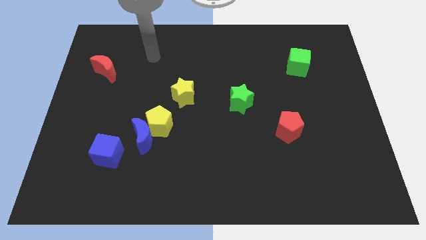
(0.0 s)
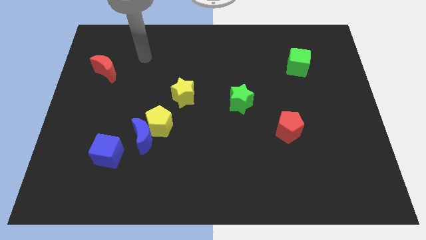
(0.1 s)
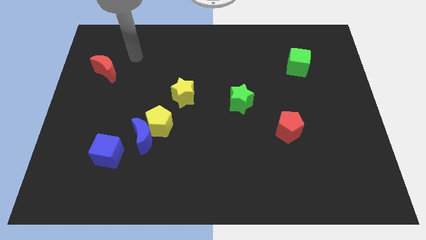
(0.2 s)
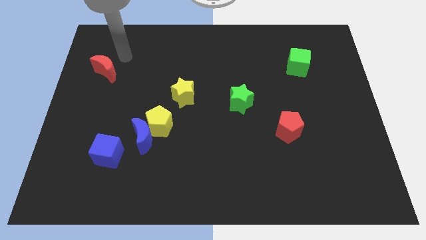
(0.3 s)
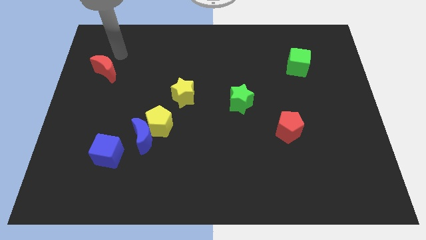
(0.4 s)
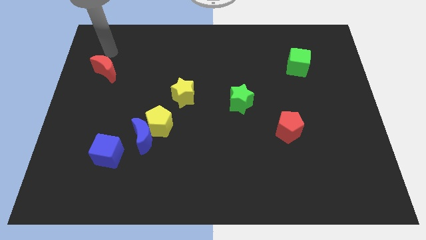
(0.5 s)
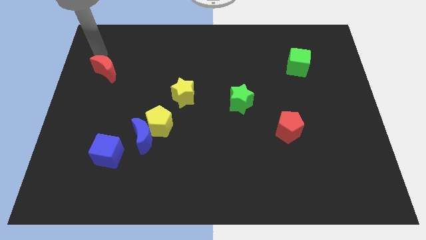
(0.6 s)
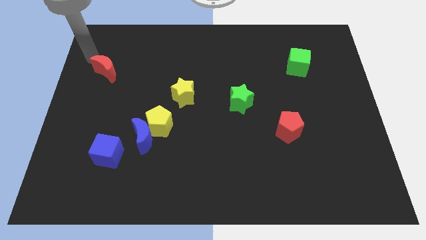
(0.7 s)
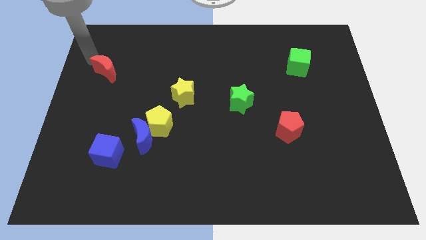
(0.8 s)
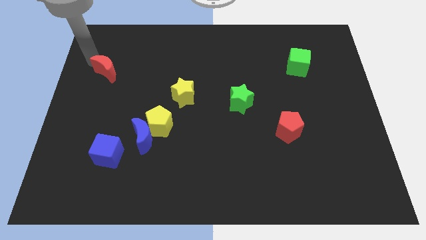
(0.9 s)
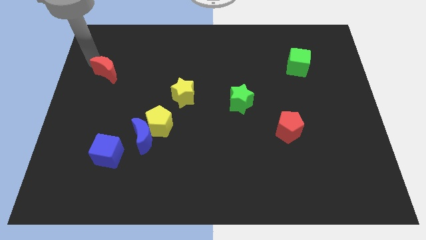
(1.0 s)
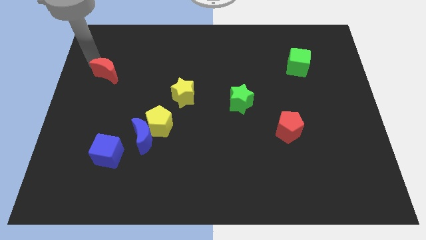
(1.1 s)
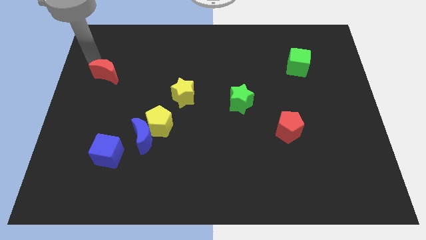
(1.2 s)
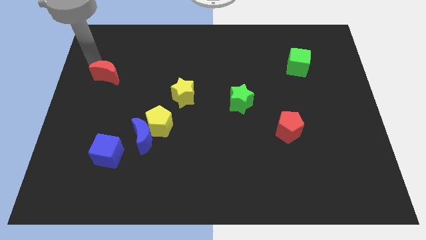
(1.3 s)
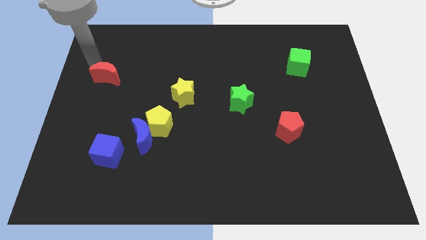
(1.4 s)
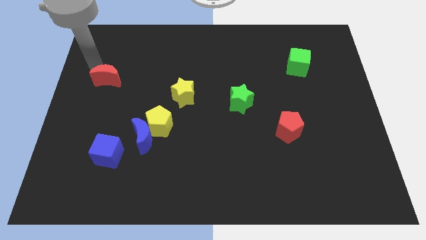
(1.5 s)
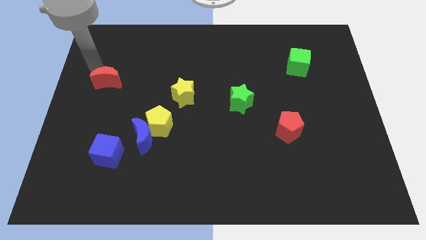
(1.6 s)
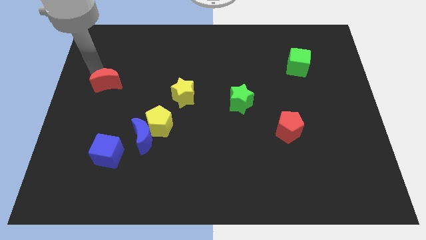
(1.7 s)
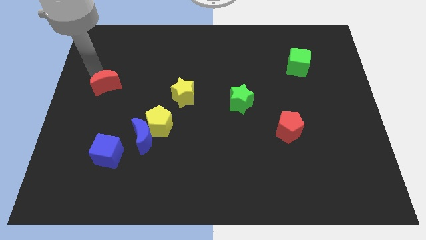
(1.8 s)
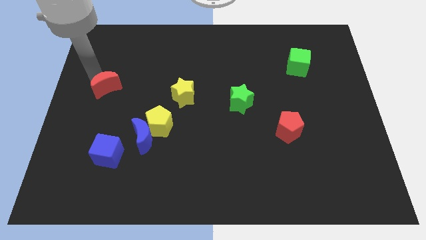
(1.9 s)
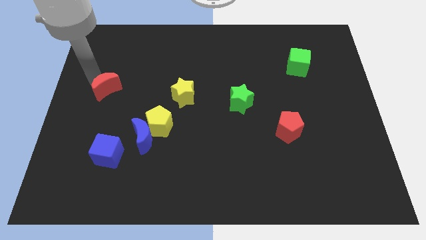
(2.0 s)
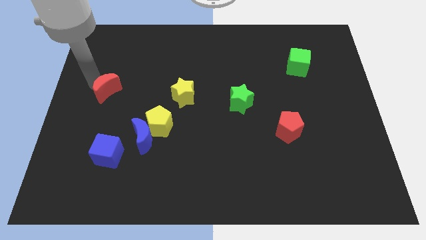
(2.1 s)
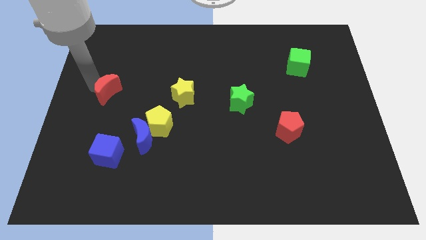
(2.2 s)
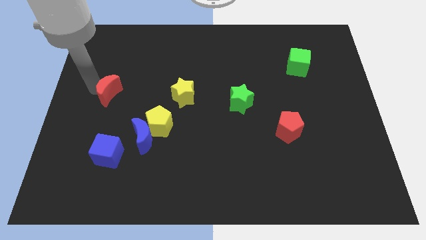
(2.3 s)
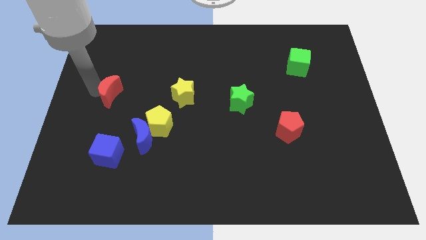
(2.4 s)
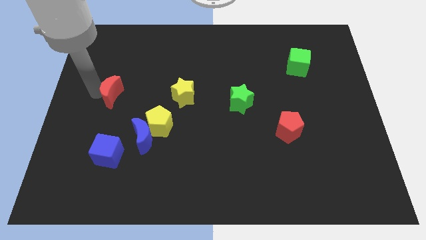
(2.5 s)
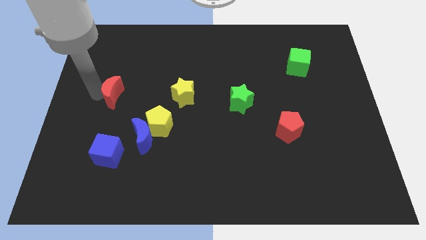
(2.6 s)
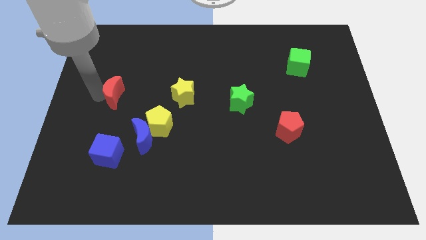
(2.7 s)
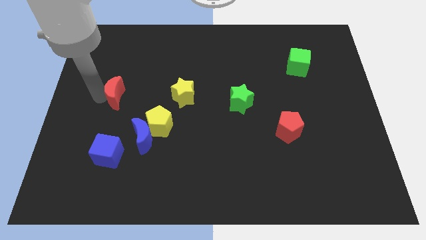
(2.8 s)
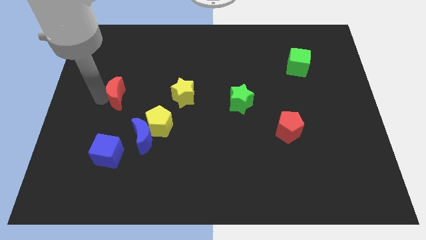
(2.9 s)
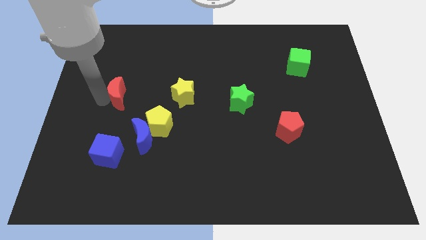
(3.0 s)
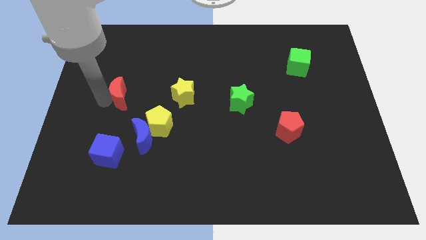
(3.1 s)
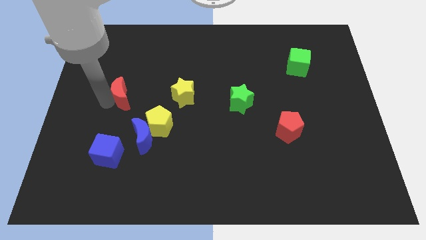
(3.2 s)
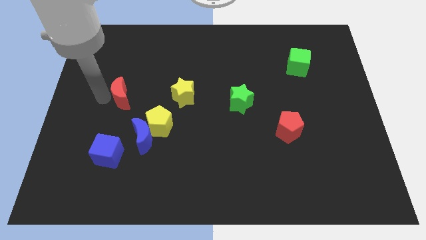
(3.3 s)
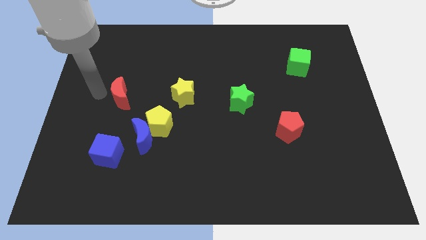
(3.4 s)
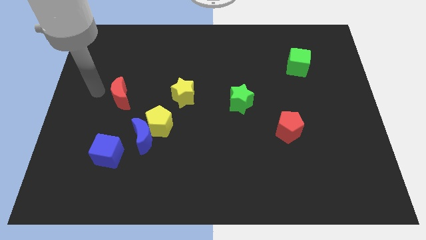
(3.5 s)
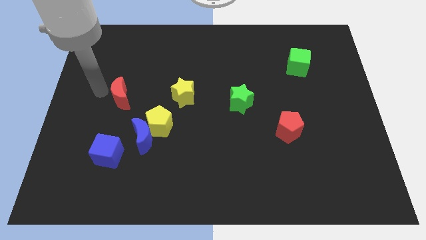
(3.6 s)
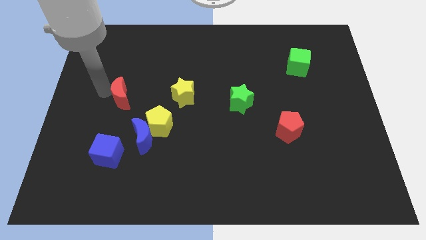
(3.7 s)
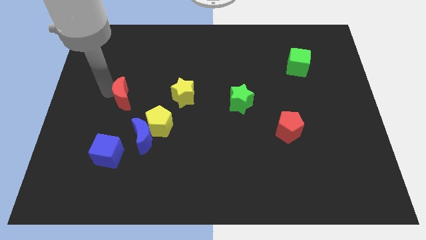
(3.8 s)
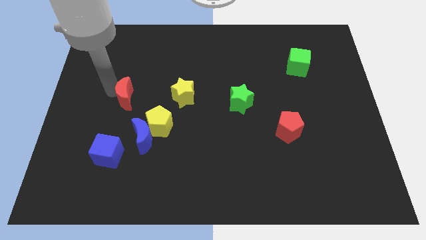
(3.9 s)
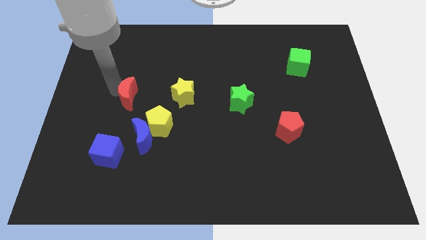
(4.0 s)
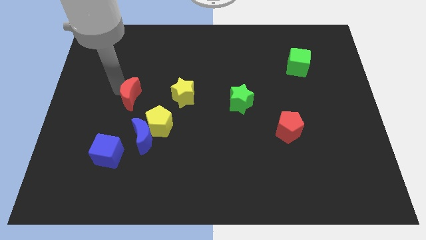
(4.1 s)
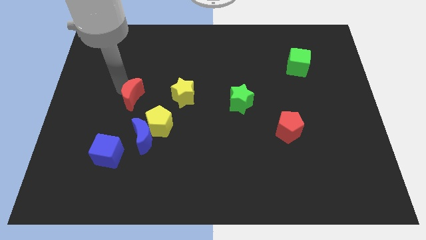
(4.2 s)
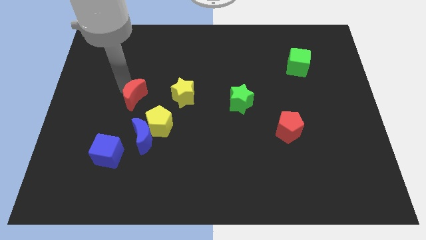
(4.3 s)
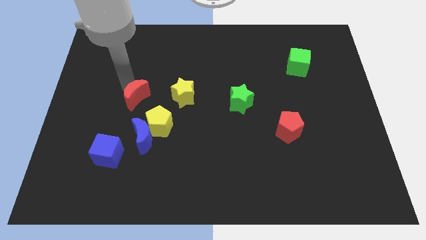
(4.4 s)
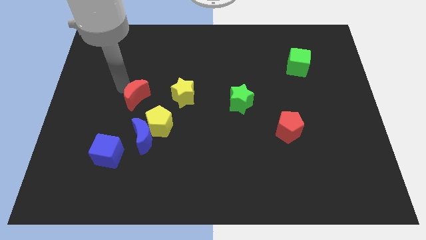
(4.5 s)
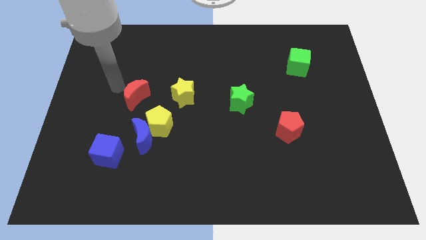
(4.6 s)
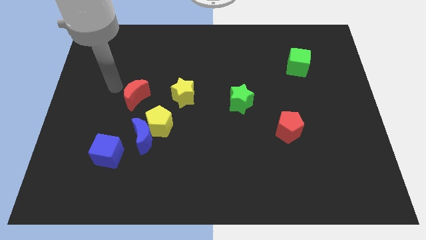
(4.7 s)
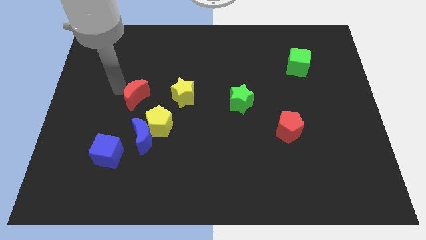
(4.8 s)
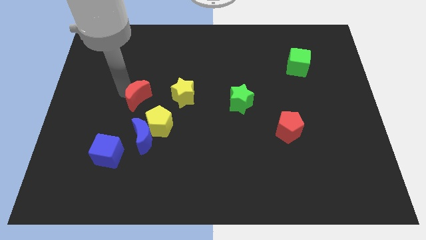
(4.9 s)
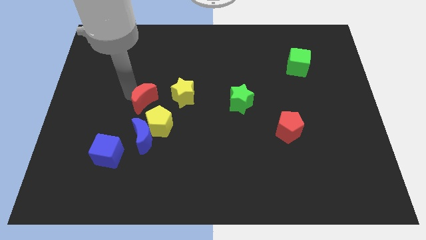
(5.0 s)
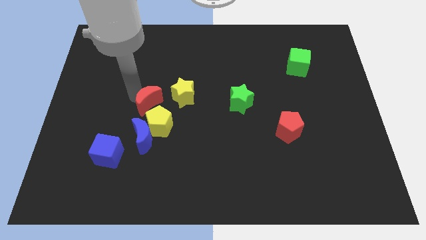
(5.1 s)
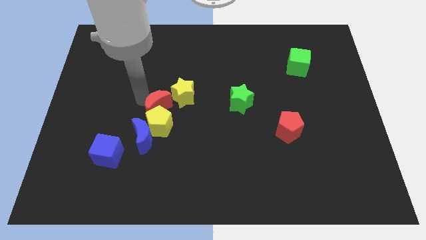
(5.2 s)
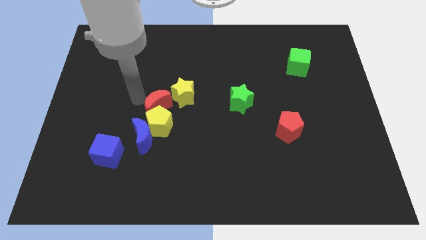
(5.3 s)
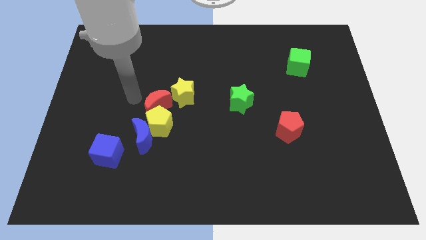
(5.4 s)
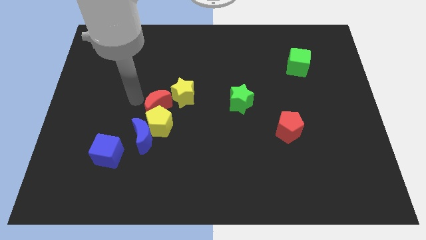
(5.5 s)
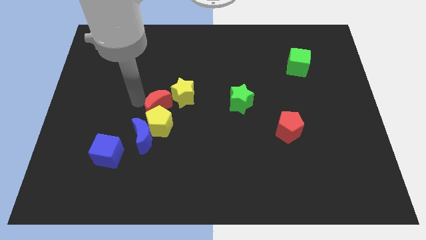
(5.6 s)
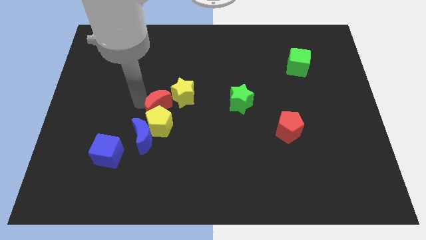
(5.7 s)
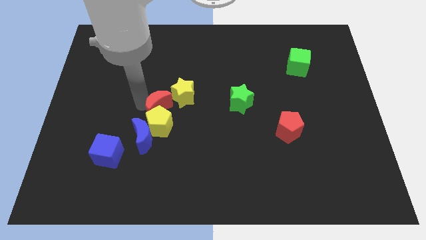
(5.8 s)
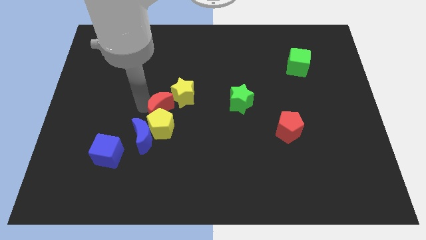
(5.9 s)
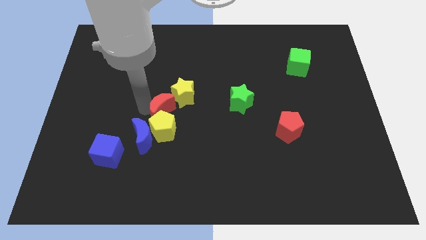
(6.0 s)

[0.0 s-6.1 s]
slide the red moon to the bottom side of the yellow star

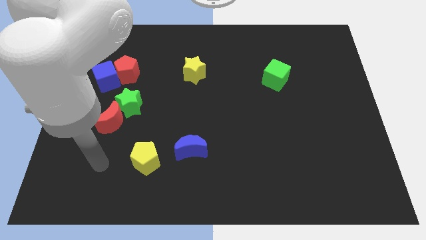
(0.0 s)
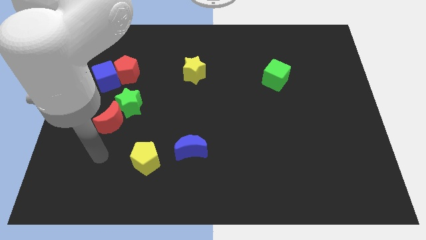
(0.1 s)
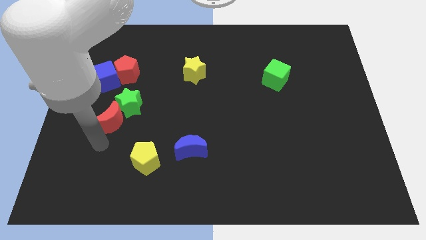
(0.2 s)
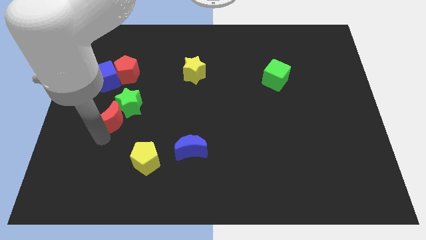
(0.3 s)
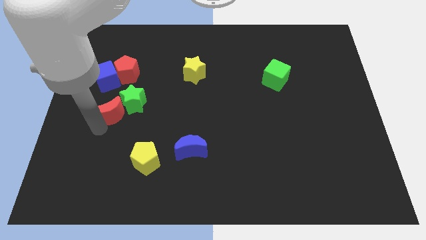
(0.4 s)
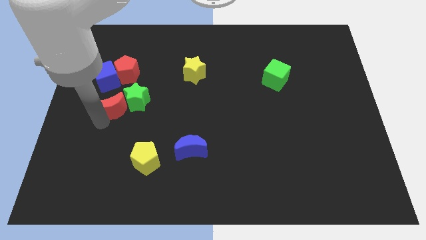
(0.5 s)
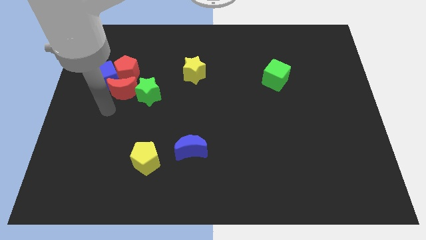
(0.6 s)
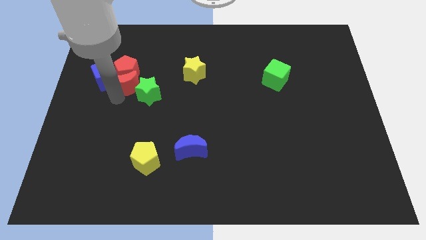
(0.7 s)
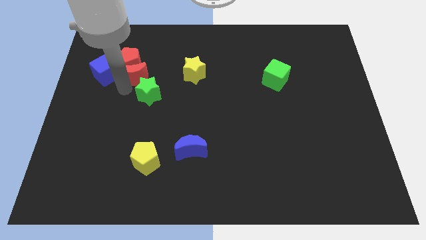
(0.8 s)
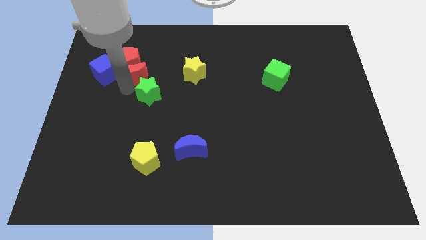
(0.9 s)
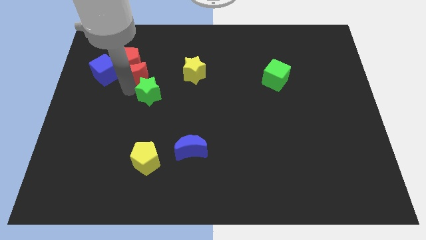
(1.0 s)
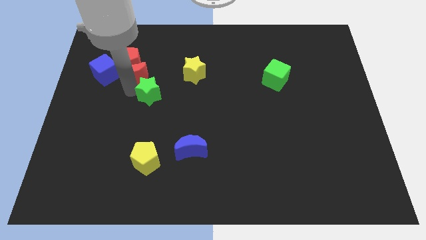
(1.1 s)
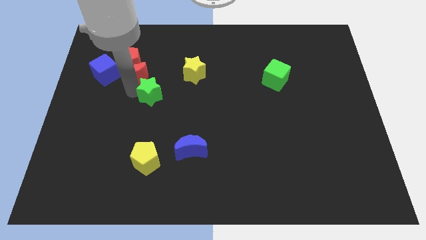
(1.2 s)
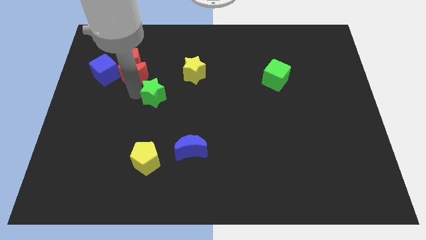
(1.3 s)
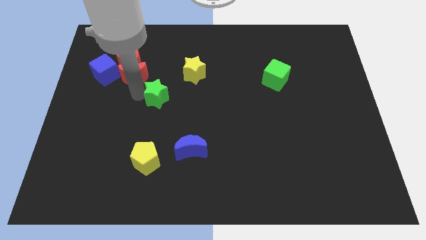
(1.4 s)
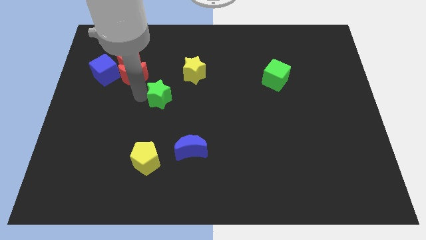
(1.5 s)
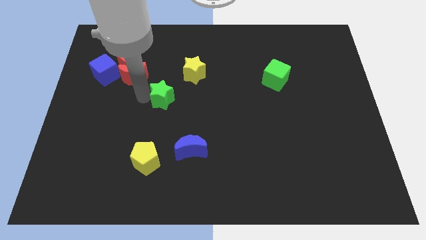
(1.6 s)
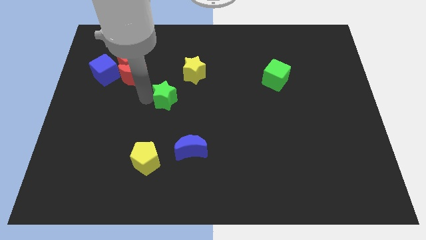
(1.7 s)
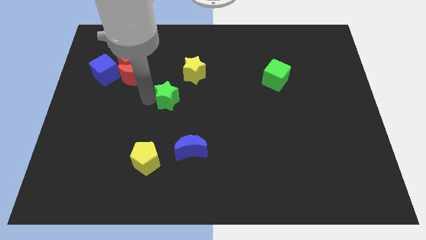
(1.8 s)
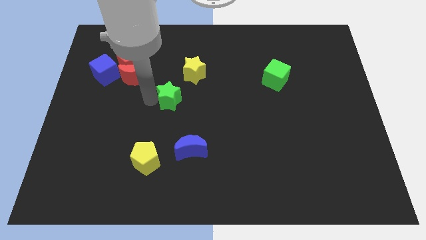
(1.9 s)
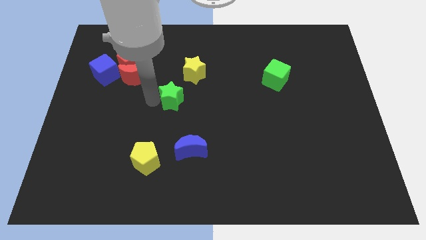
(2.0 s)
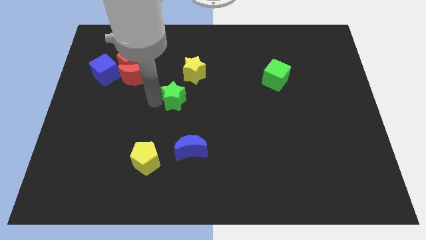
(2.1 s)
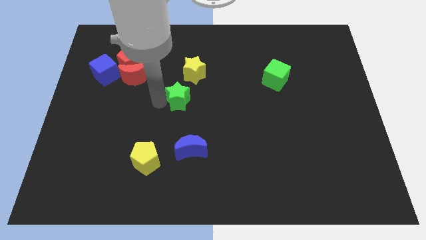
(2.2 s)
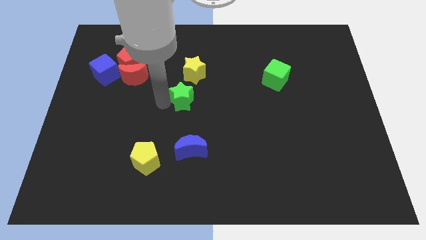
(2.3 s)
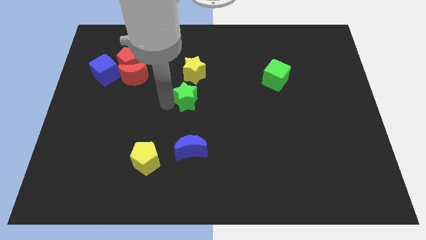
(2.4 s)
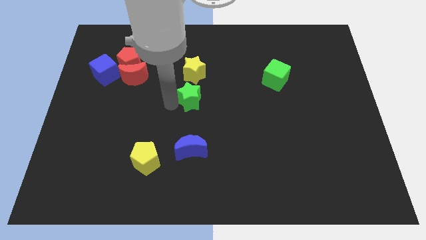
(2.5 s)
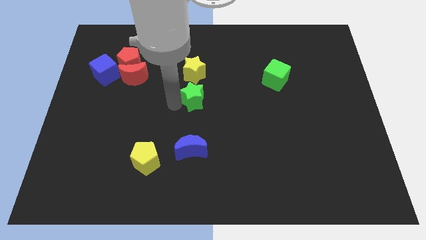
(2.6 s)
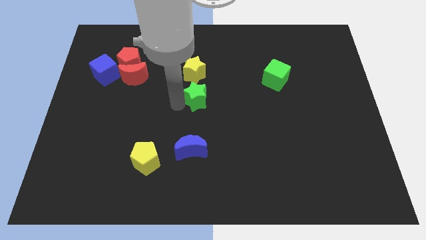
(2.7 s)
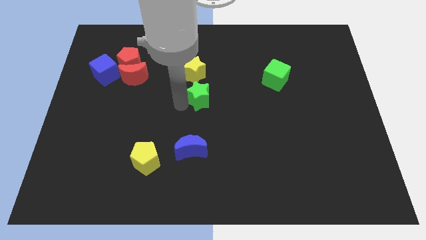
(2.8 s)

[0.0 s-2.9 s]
push the green star to the bottom right side of the yellow star
